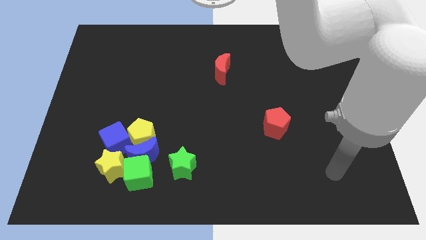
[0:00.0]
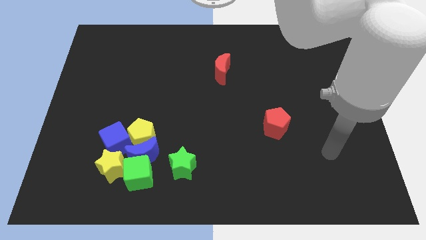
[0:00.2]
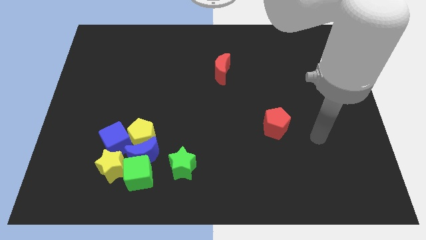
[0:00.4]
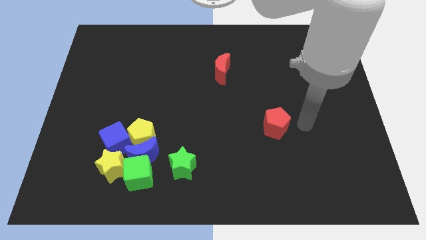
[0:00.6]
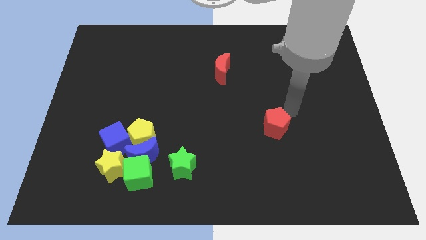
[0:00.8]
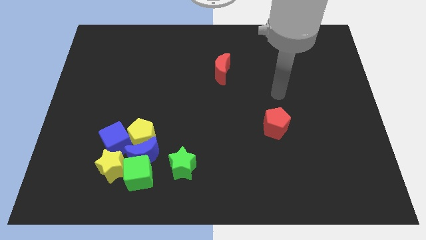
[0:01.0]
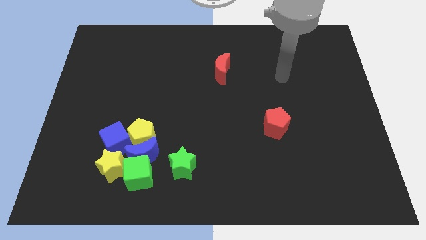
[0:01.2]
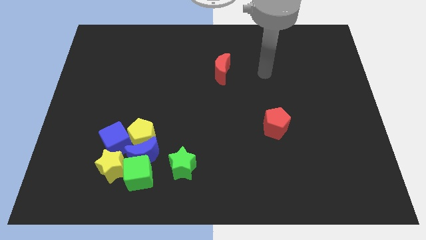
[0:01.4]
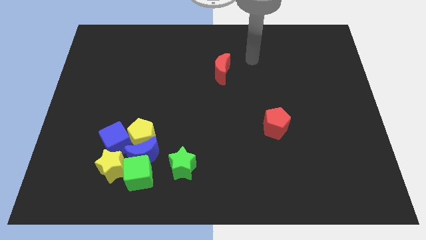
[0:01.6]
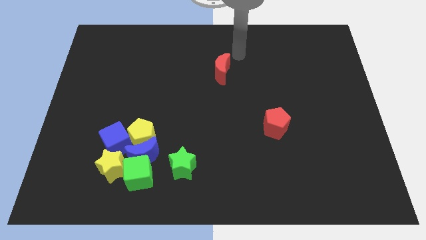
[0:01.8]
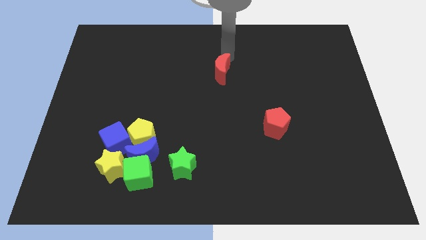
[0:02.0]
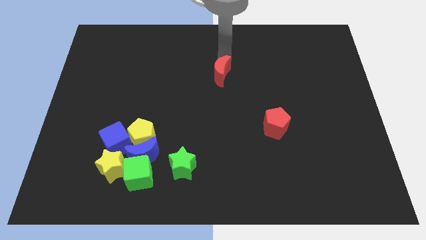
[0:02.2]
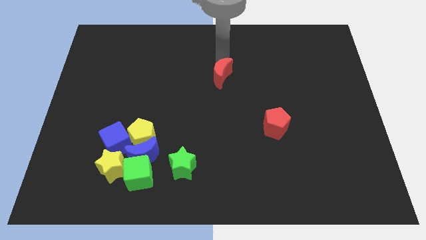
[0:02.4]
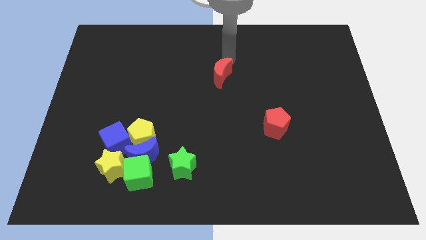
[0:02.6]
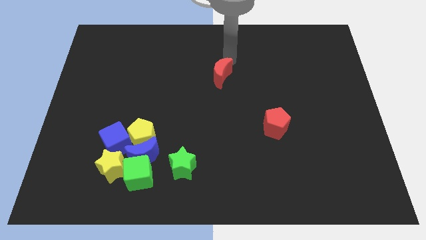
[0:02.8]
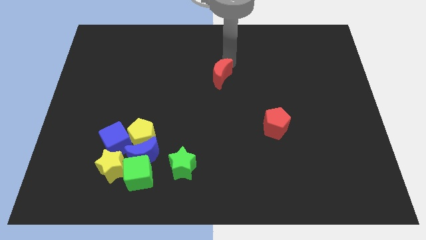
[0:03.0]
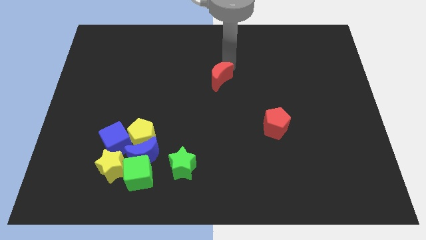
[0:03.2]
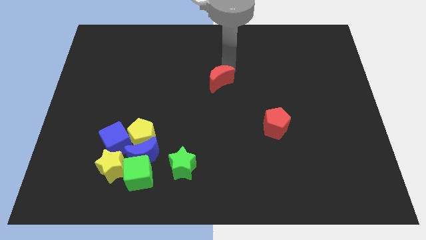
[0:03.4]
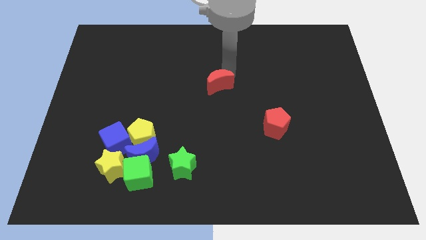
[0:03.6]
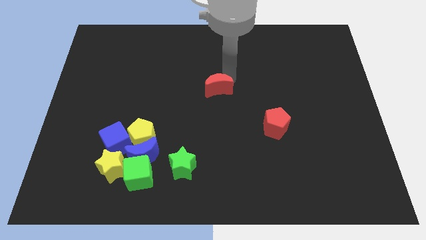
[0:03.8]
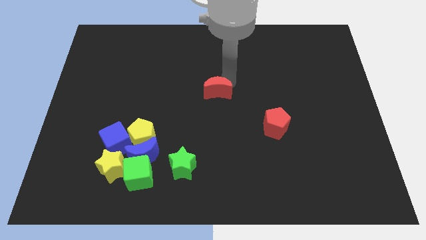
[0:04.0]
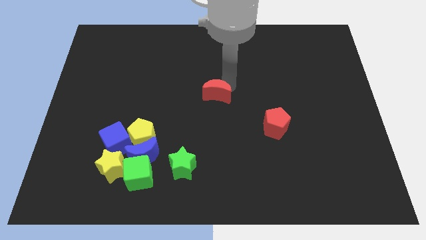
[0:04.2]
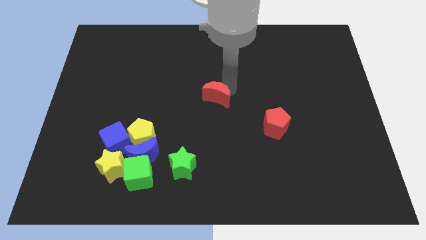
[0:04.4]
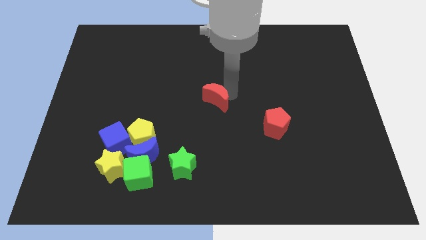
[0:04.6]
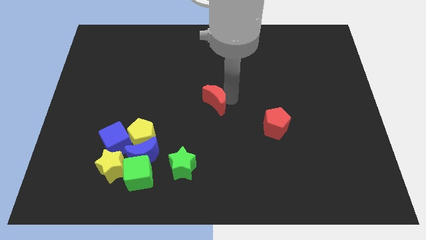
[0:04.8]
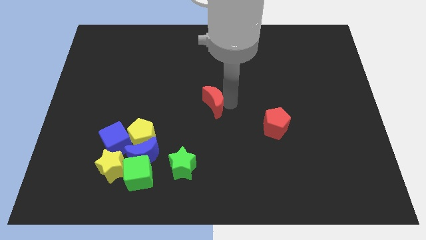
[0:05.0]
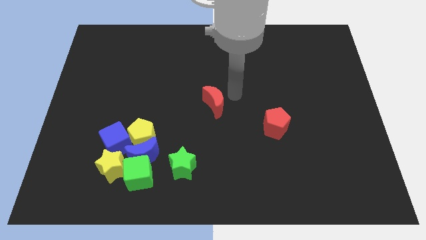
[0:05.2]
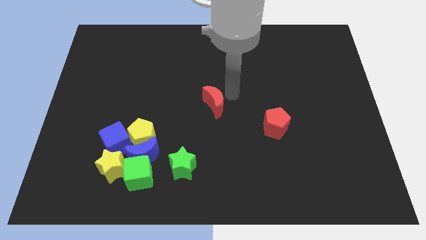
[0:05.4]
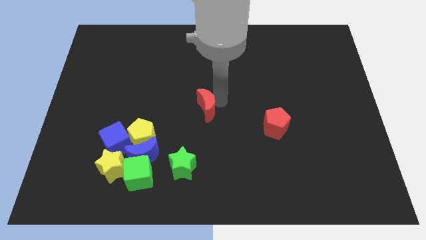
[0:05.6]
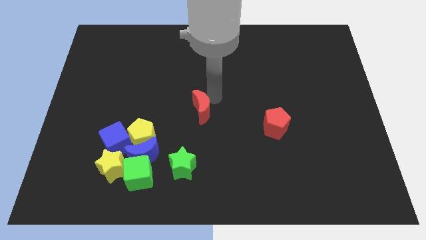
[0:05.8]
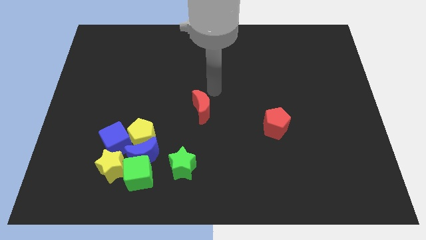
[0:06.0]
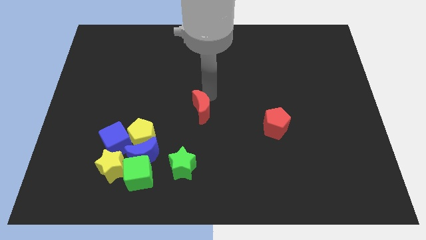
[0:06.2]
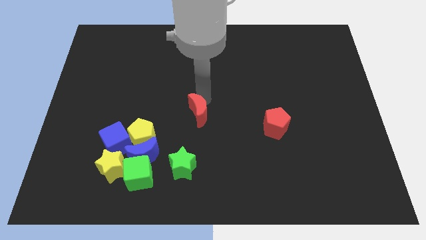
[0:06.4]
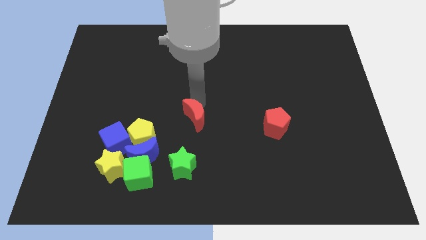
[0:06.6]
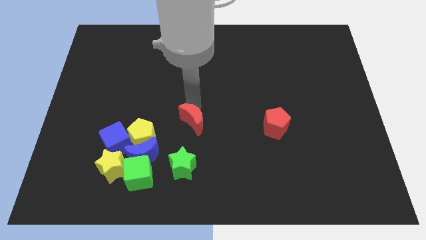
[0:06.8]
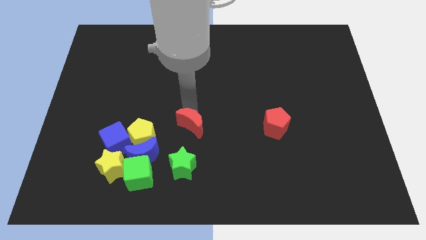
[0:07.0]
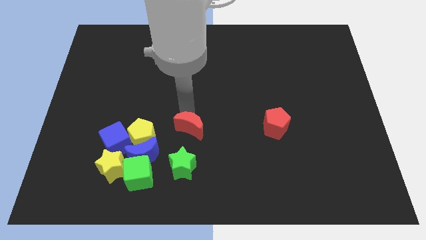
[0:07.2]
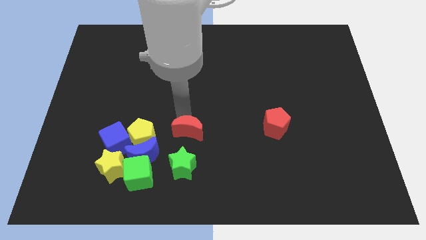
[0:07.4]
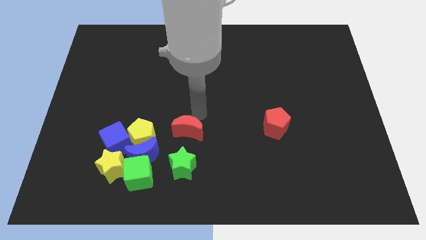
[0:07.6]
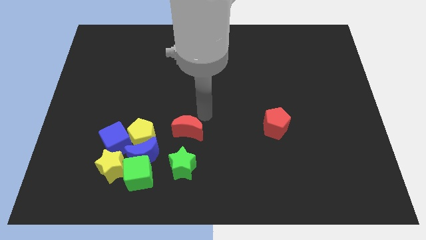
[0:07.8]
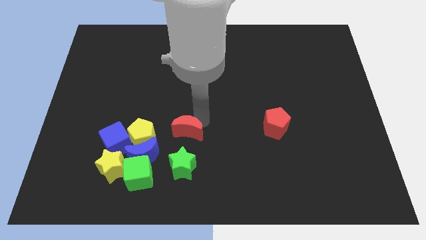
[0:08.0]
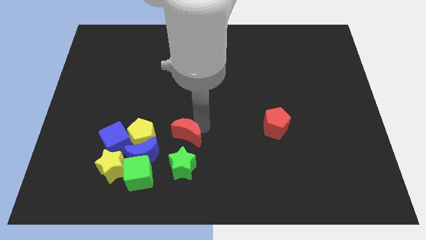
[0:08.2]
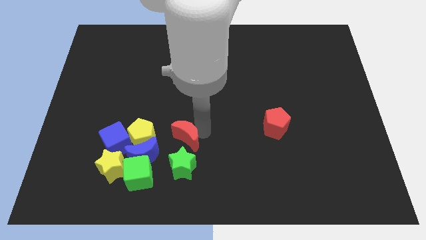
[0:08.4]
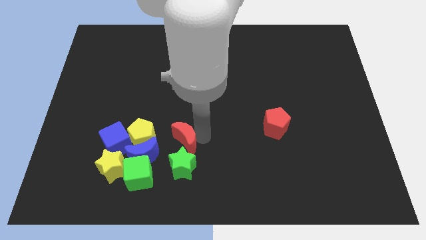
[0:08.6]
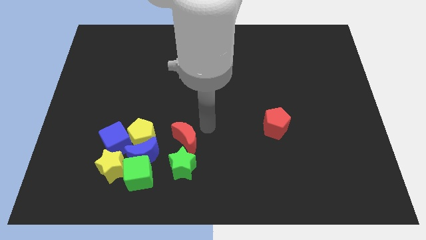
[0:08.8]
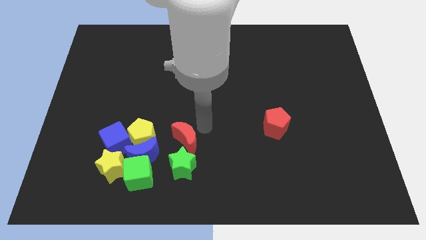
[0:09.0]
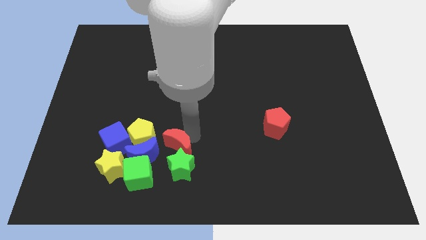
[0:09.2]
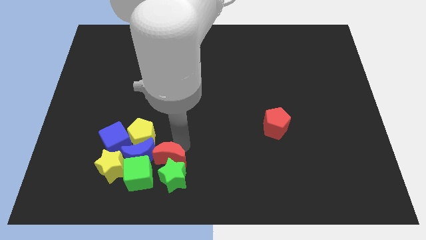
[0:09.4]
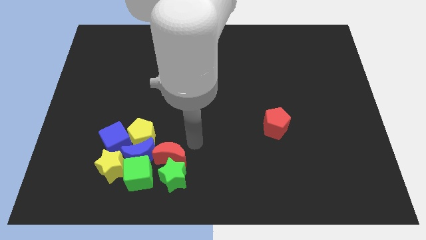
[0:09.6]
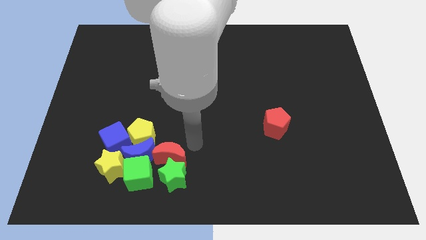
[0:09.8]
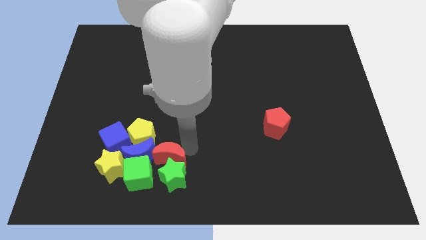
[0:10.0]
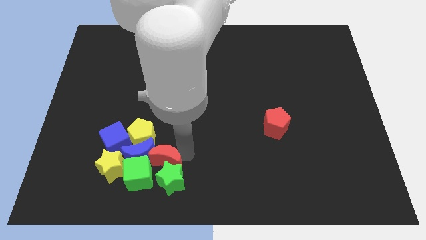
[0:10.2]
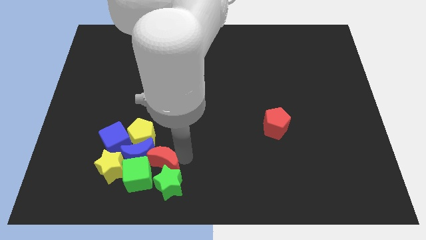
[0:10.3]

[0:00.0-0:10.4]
move the red moon towards the green cube

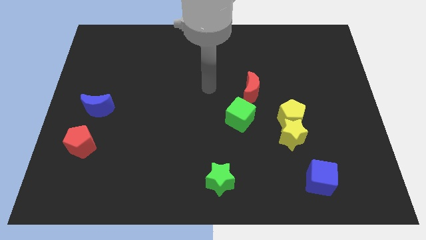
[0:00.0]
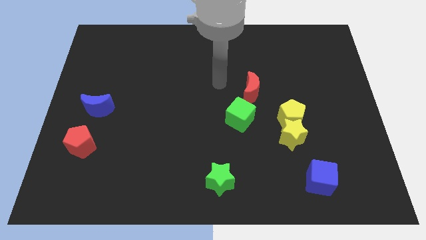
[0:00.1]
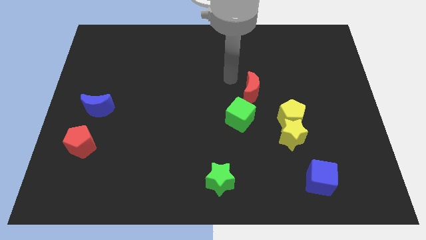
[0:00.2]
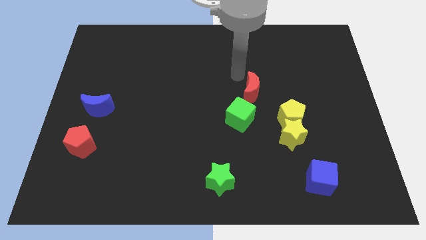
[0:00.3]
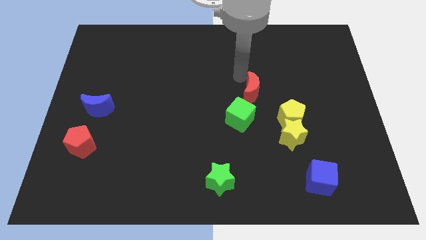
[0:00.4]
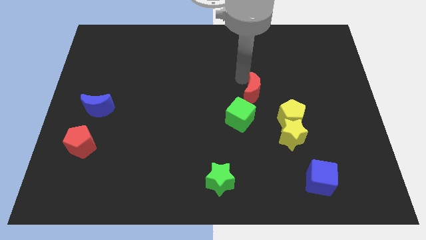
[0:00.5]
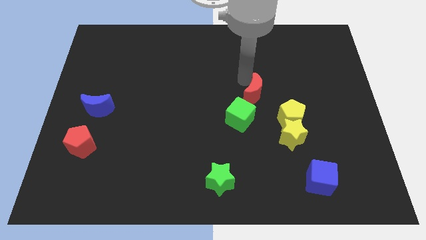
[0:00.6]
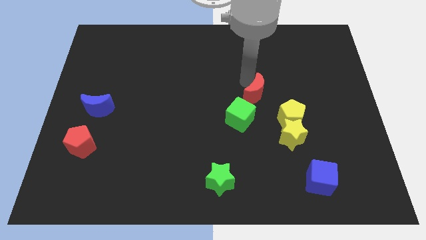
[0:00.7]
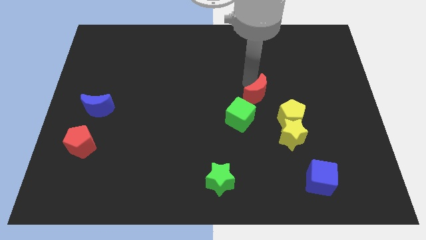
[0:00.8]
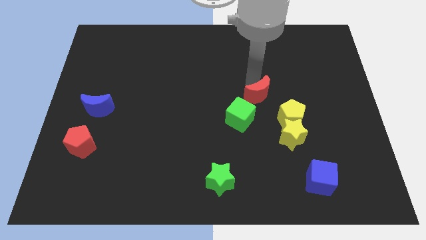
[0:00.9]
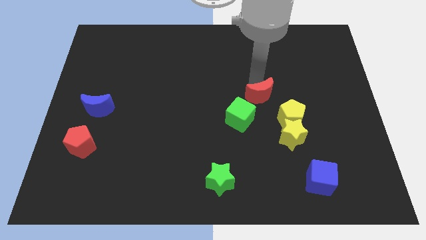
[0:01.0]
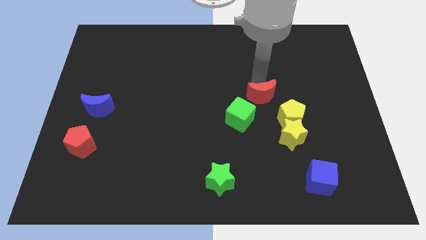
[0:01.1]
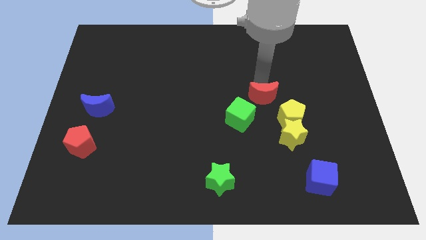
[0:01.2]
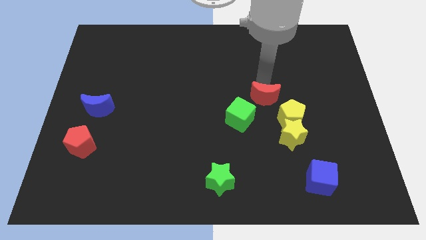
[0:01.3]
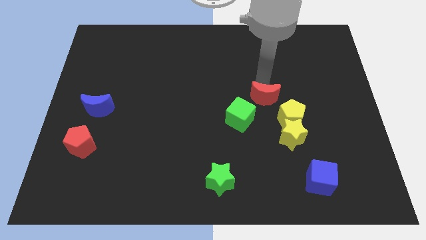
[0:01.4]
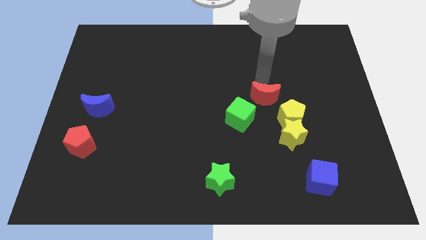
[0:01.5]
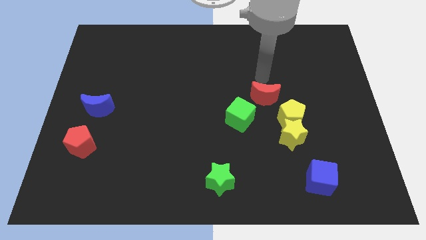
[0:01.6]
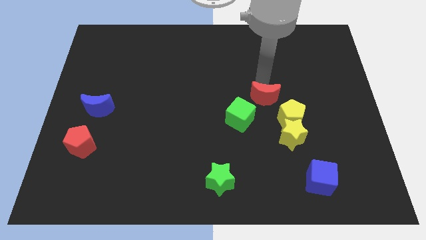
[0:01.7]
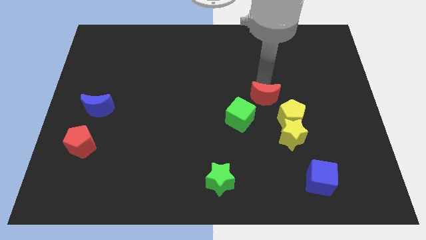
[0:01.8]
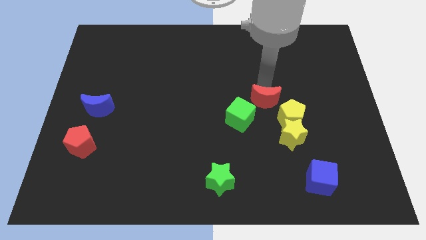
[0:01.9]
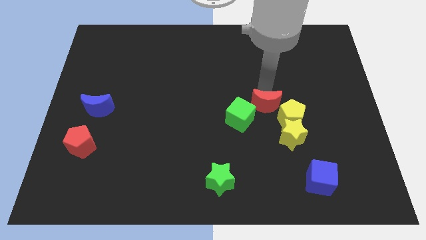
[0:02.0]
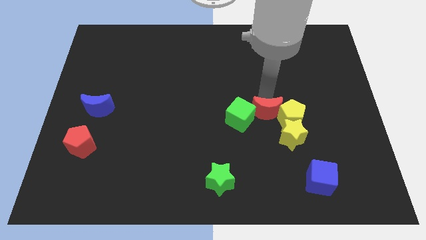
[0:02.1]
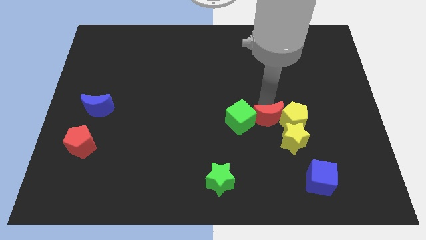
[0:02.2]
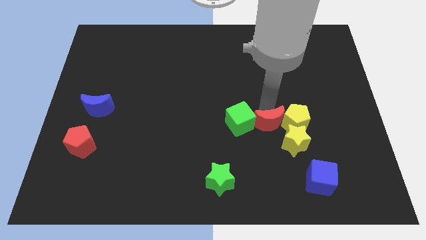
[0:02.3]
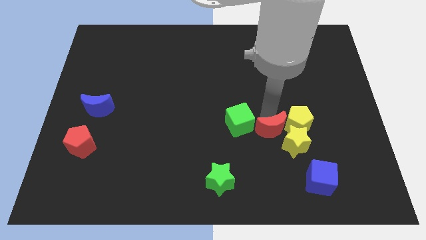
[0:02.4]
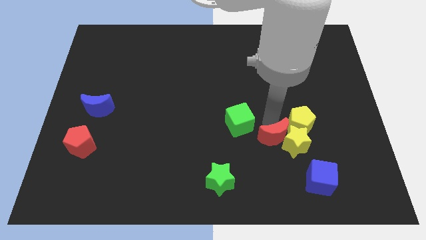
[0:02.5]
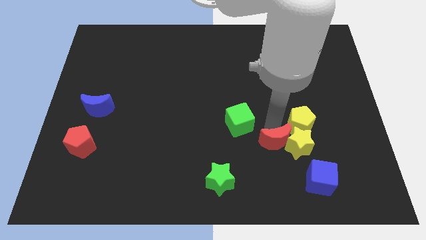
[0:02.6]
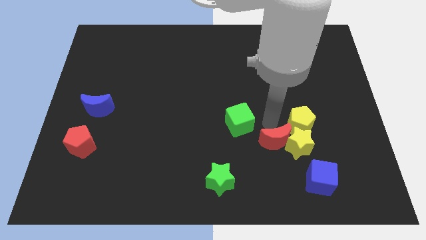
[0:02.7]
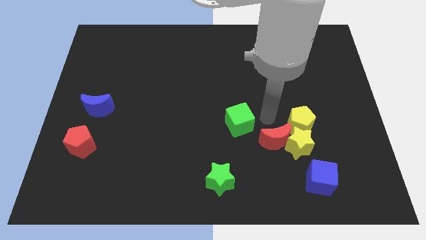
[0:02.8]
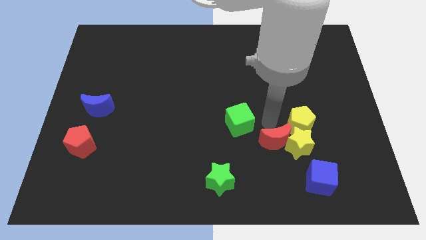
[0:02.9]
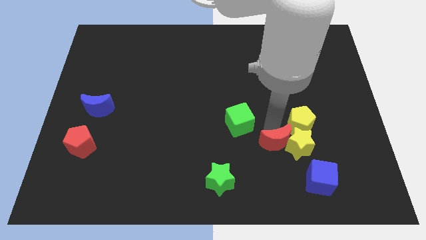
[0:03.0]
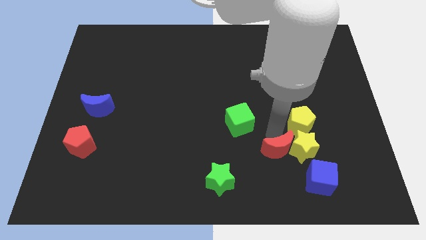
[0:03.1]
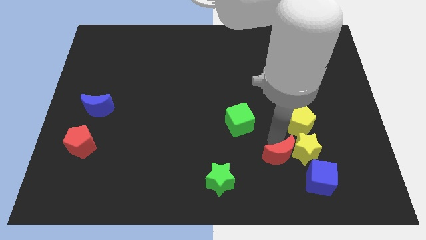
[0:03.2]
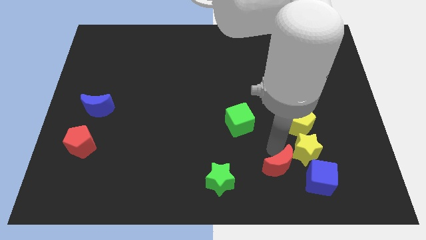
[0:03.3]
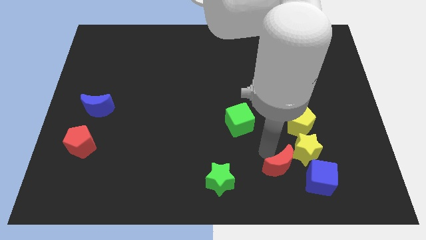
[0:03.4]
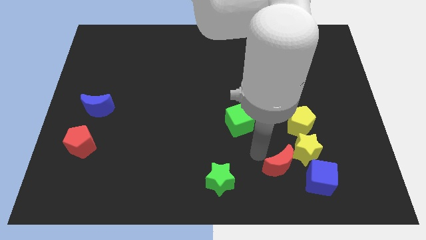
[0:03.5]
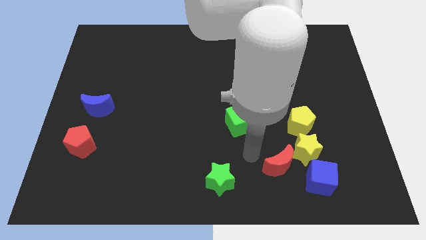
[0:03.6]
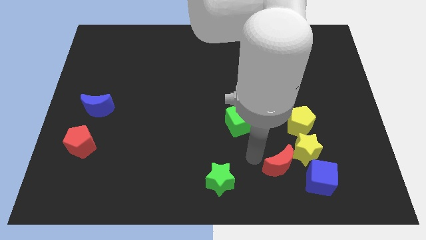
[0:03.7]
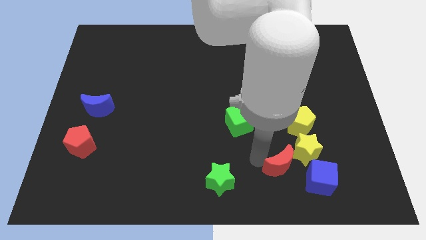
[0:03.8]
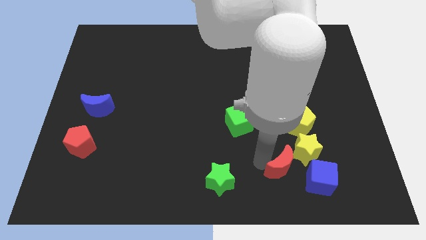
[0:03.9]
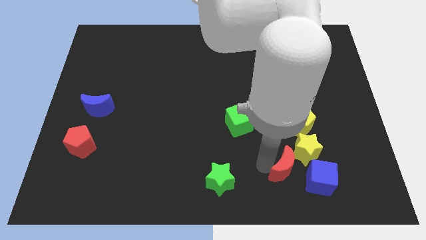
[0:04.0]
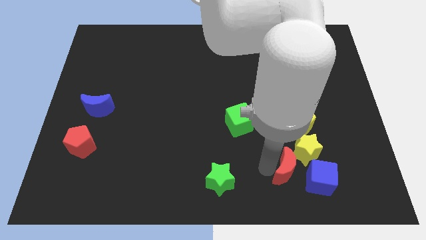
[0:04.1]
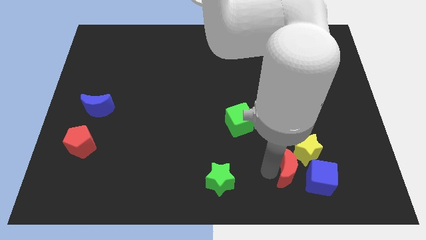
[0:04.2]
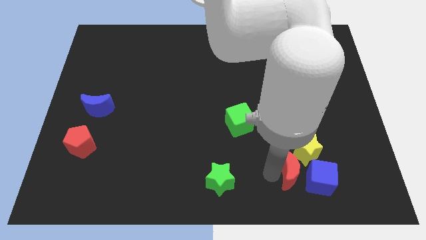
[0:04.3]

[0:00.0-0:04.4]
put the red moon close to the blue cube
